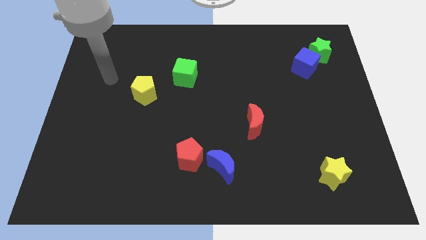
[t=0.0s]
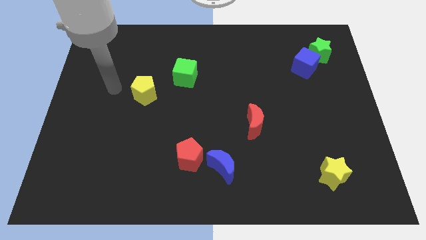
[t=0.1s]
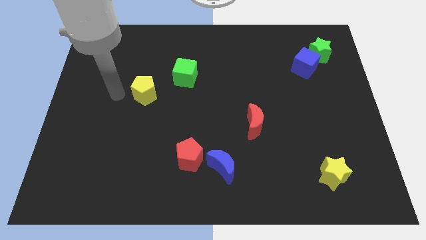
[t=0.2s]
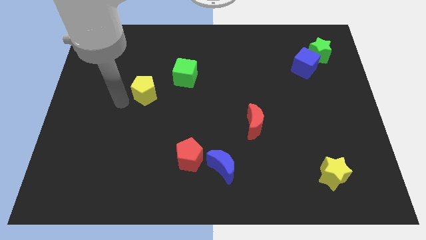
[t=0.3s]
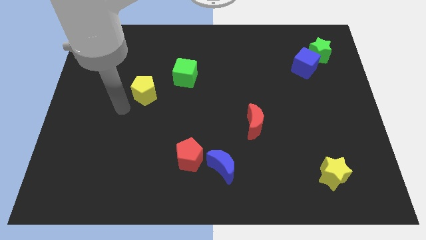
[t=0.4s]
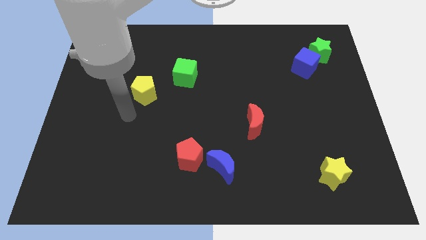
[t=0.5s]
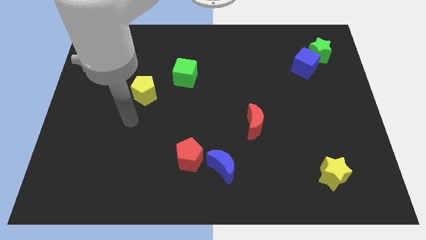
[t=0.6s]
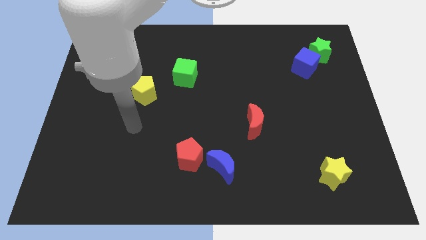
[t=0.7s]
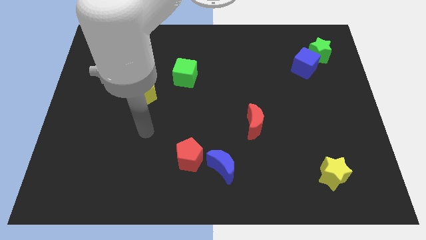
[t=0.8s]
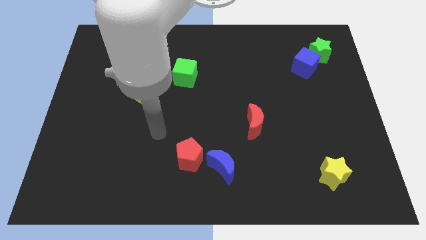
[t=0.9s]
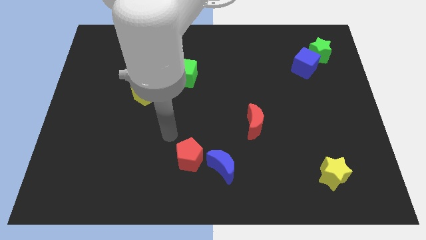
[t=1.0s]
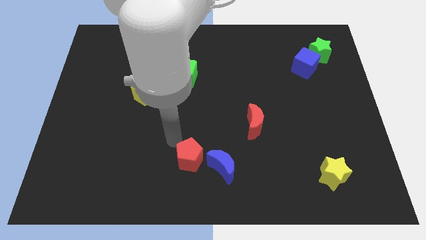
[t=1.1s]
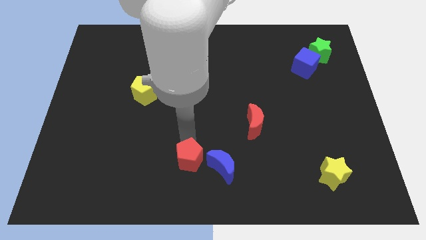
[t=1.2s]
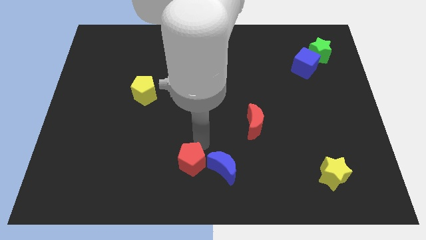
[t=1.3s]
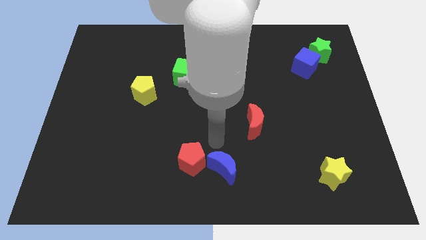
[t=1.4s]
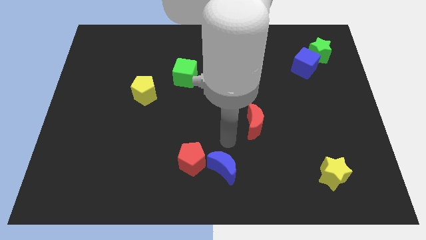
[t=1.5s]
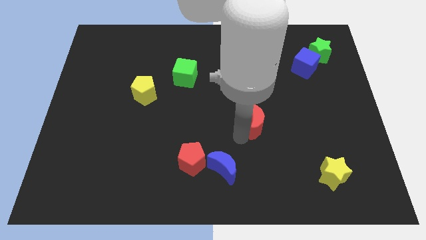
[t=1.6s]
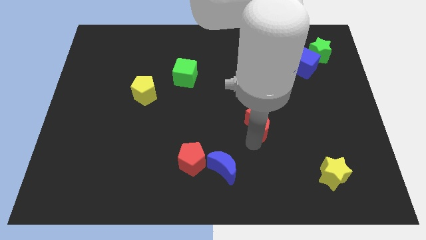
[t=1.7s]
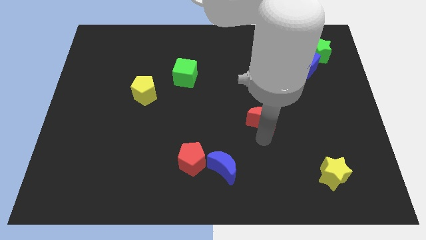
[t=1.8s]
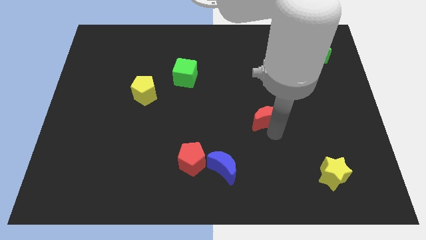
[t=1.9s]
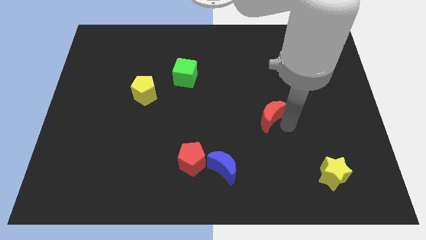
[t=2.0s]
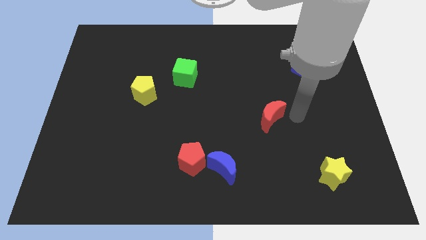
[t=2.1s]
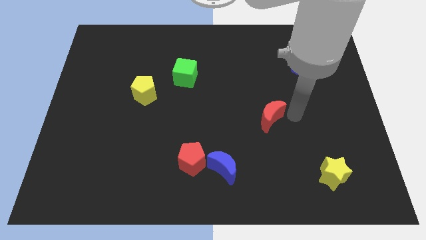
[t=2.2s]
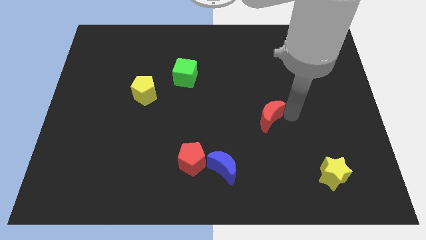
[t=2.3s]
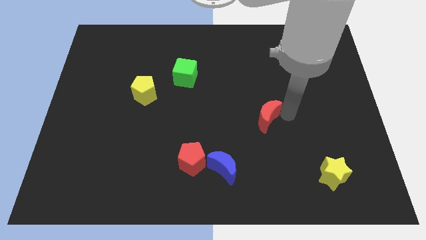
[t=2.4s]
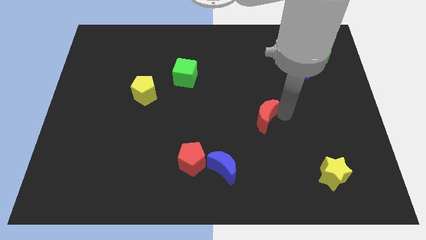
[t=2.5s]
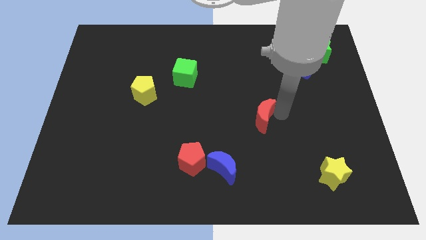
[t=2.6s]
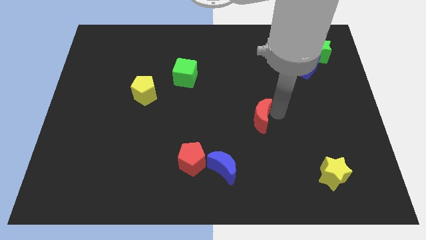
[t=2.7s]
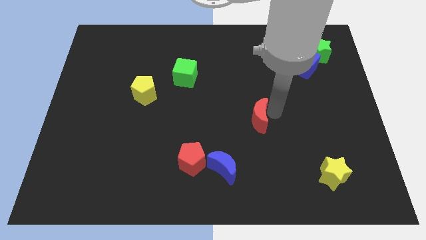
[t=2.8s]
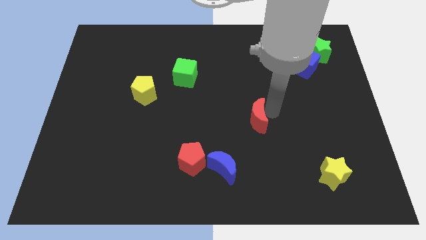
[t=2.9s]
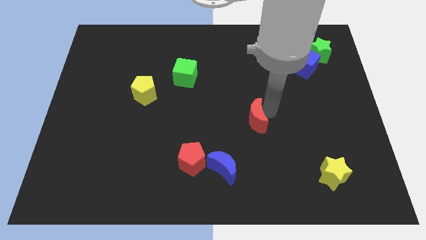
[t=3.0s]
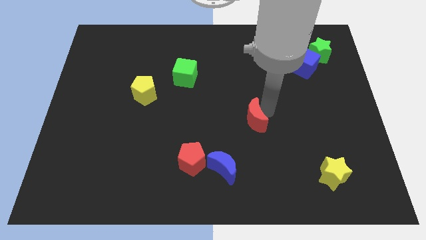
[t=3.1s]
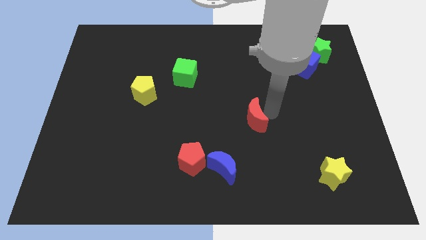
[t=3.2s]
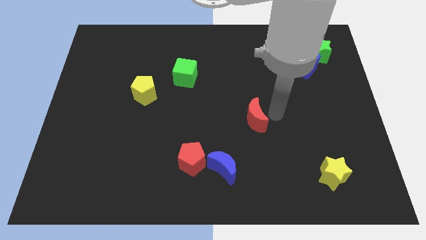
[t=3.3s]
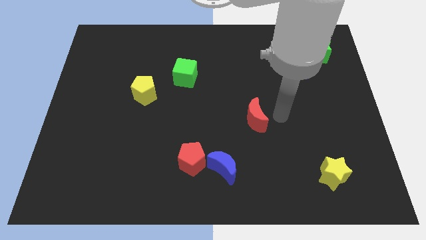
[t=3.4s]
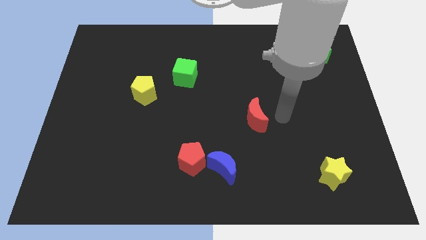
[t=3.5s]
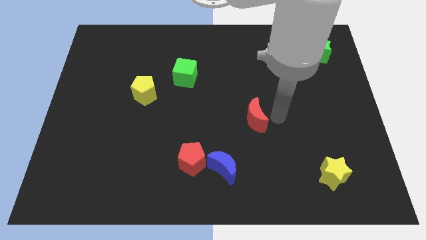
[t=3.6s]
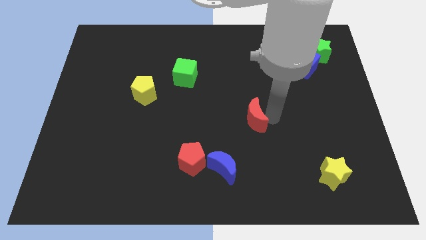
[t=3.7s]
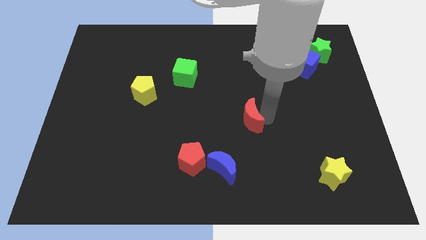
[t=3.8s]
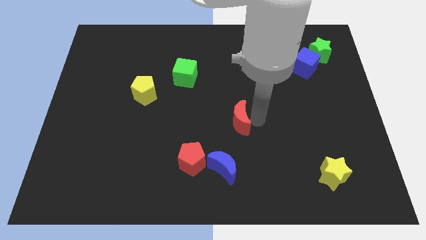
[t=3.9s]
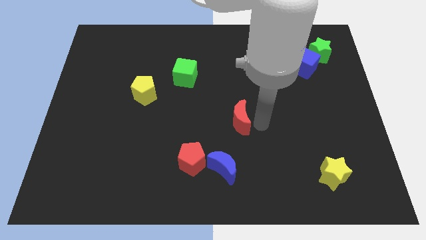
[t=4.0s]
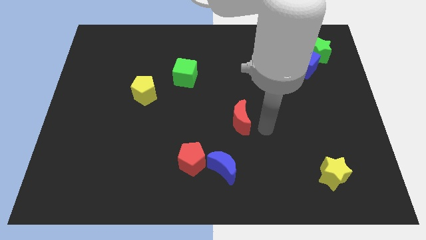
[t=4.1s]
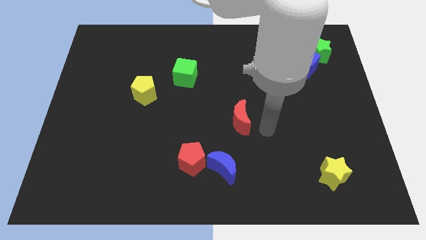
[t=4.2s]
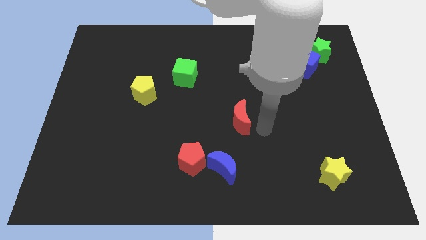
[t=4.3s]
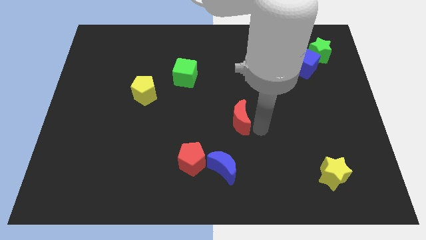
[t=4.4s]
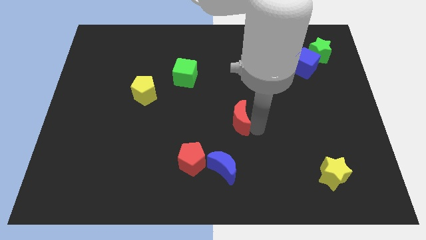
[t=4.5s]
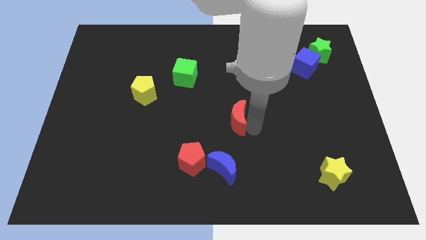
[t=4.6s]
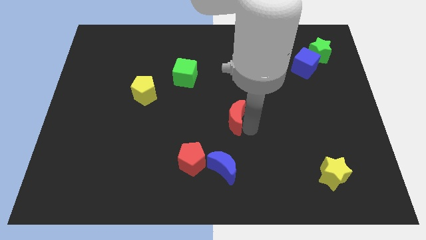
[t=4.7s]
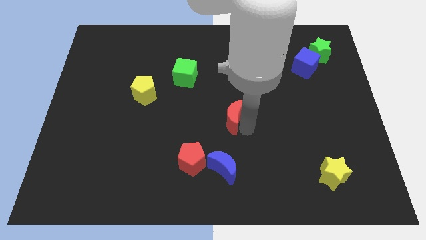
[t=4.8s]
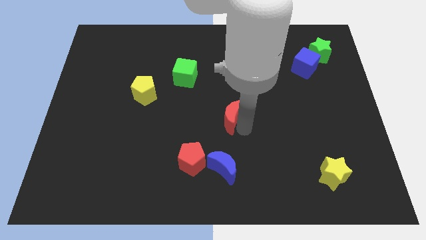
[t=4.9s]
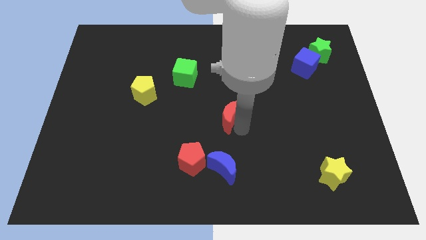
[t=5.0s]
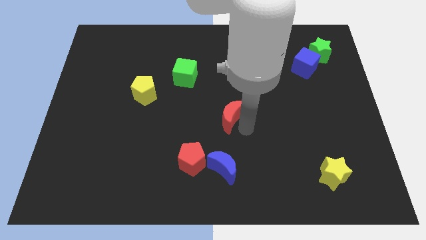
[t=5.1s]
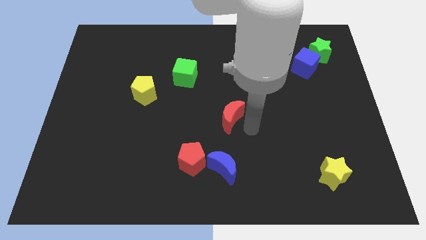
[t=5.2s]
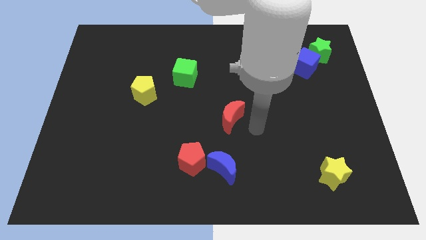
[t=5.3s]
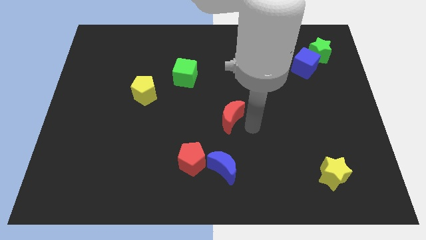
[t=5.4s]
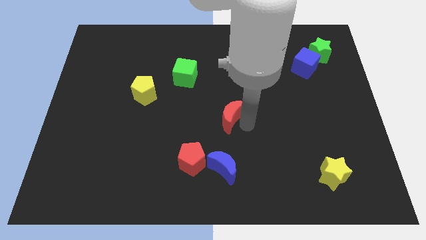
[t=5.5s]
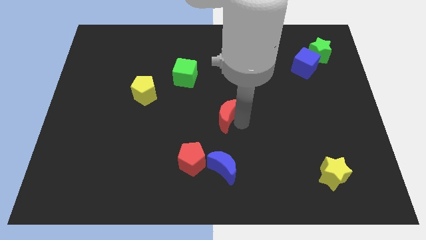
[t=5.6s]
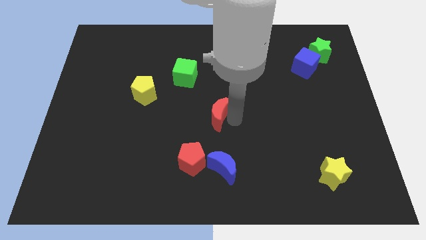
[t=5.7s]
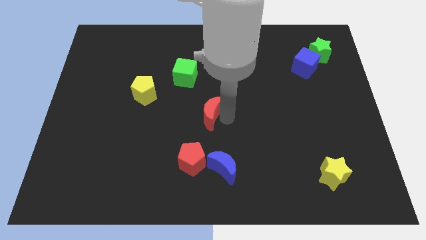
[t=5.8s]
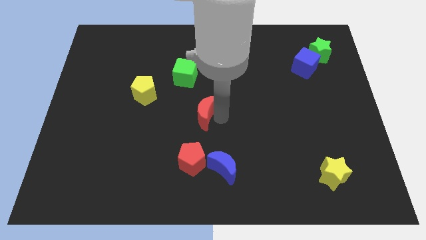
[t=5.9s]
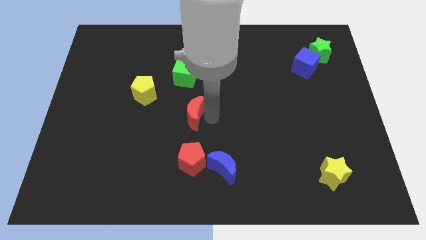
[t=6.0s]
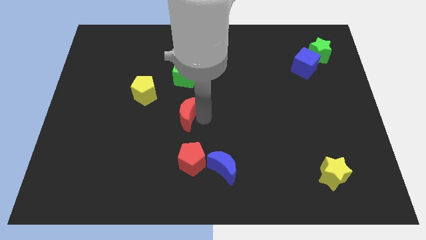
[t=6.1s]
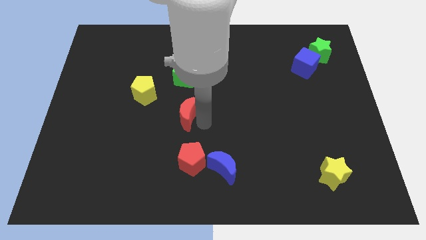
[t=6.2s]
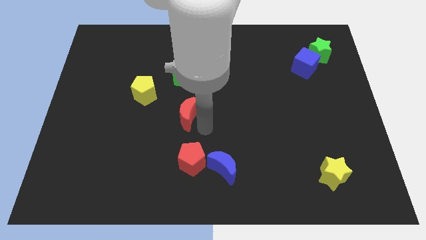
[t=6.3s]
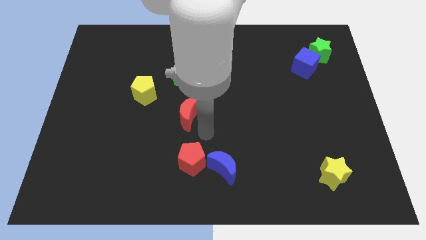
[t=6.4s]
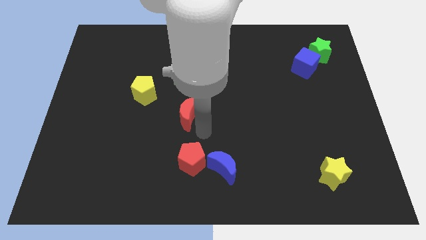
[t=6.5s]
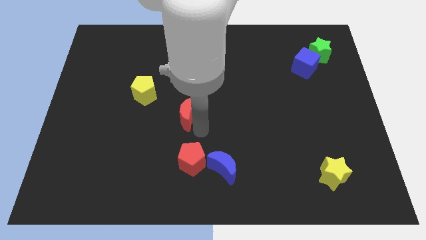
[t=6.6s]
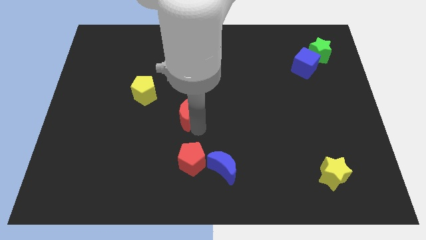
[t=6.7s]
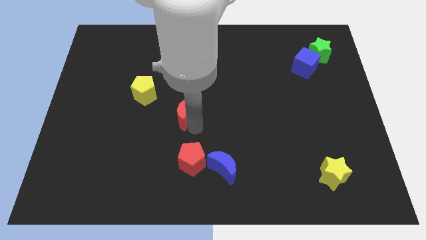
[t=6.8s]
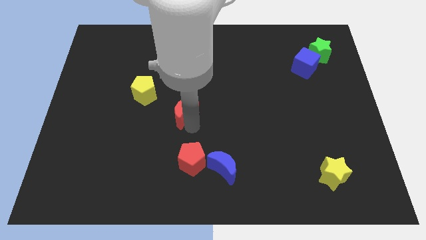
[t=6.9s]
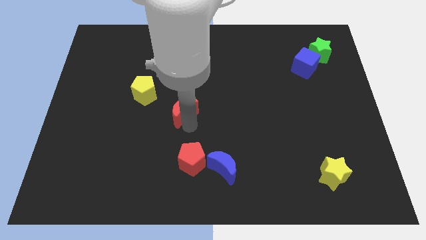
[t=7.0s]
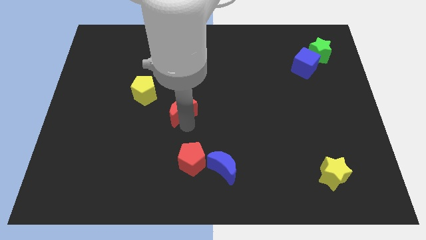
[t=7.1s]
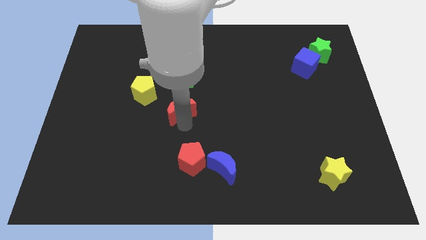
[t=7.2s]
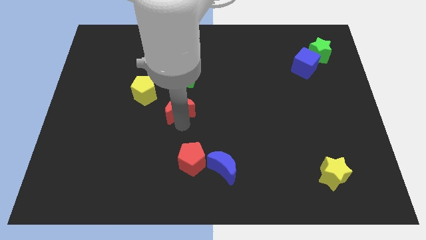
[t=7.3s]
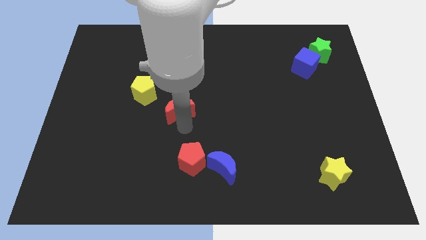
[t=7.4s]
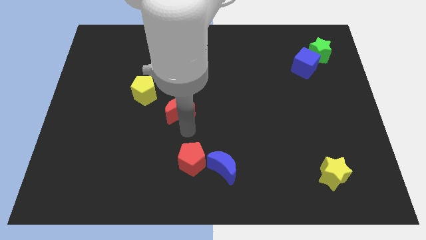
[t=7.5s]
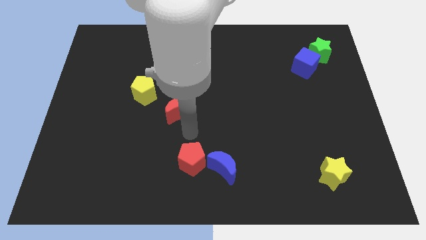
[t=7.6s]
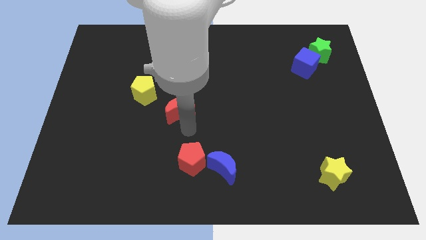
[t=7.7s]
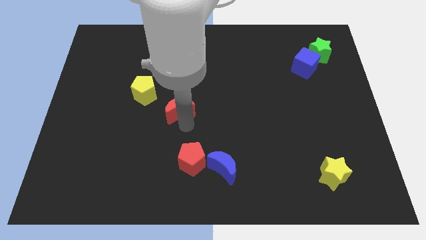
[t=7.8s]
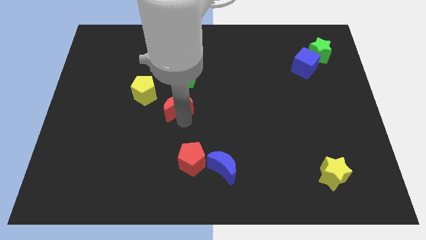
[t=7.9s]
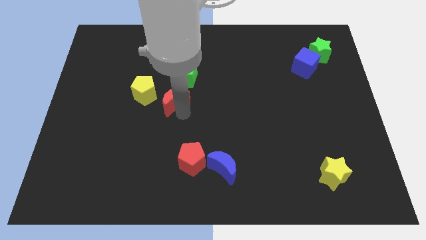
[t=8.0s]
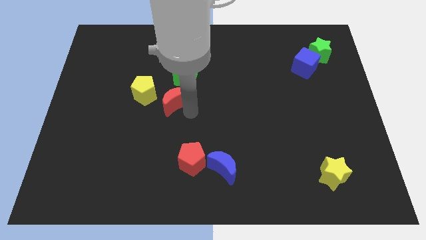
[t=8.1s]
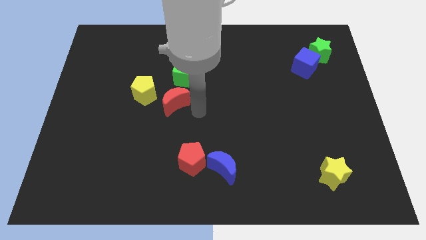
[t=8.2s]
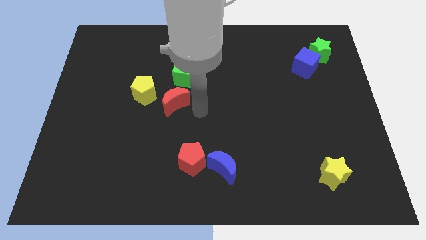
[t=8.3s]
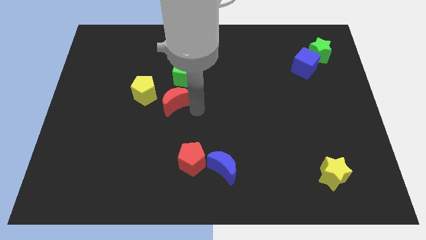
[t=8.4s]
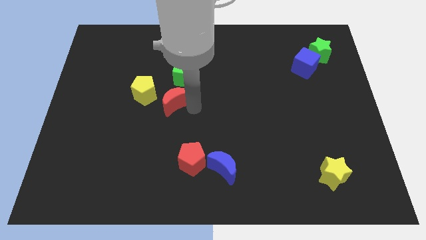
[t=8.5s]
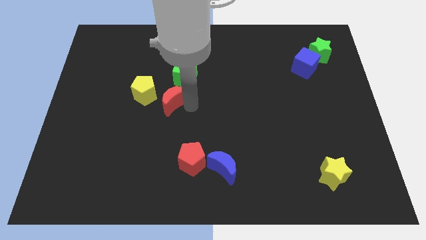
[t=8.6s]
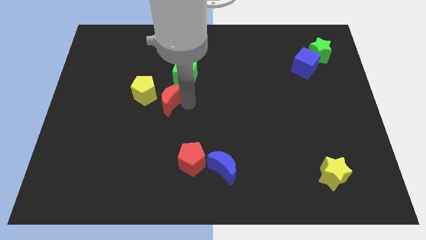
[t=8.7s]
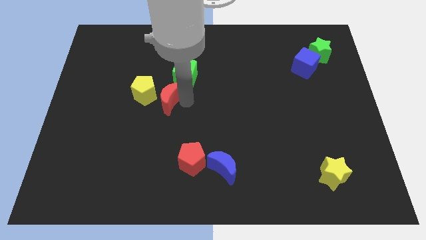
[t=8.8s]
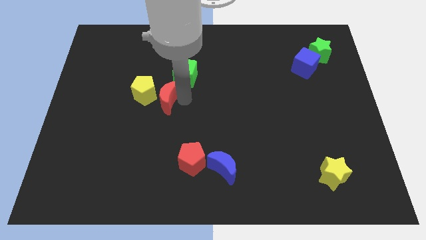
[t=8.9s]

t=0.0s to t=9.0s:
slide the red moon to the yellow pentagon
